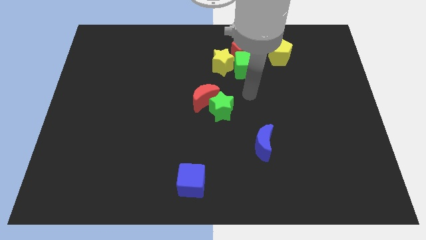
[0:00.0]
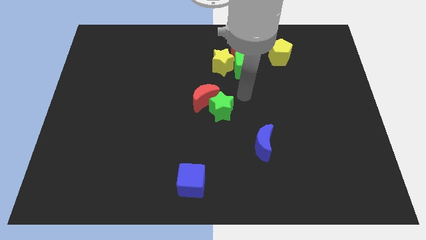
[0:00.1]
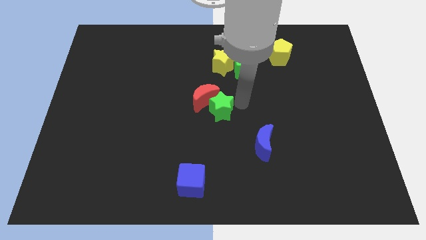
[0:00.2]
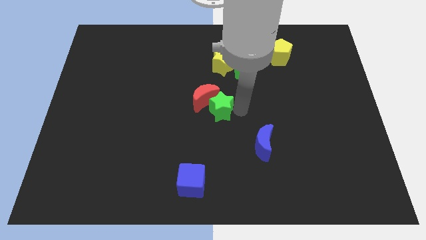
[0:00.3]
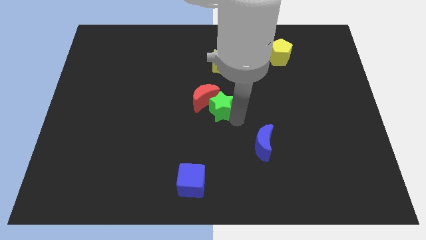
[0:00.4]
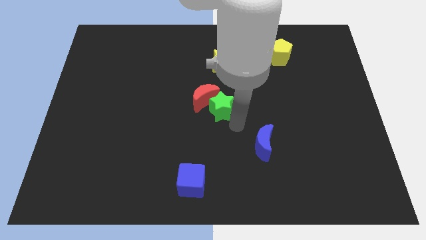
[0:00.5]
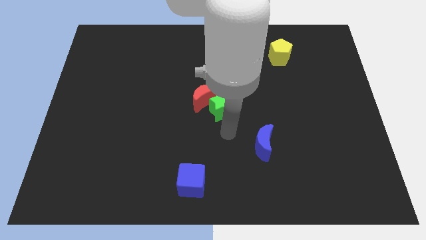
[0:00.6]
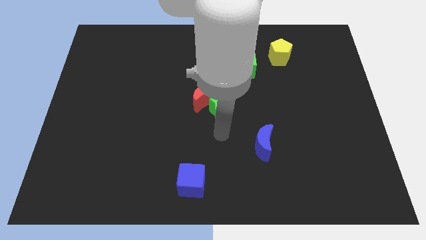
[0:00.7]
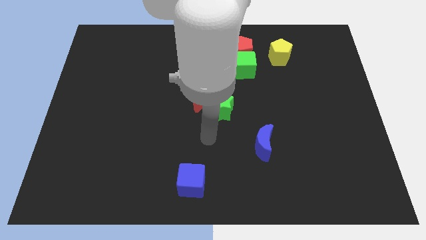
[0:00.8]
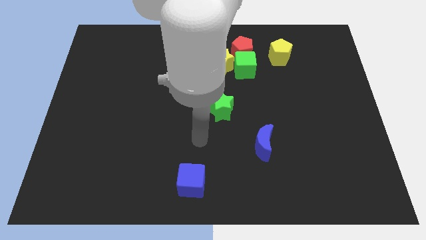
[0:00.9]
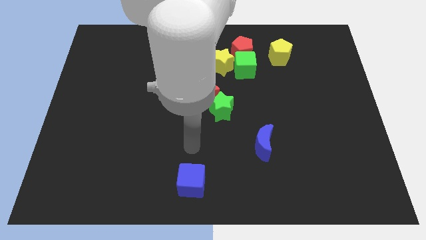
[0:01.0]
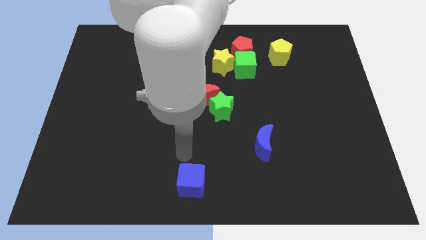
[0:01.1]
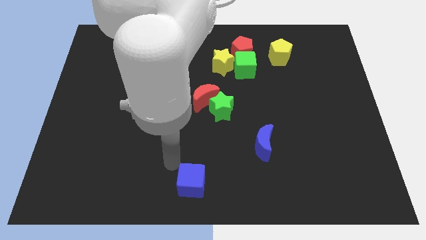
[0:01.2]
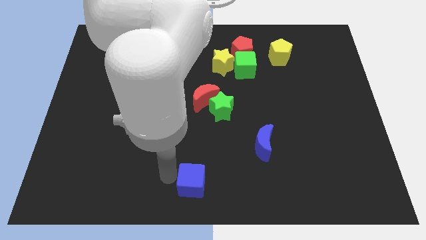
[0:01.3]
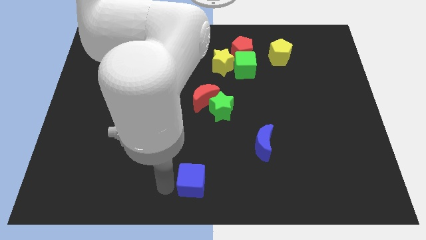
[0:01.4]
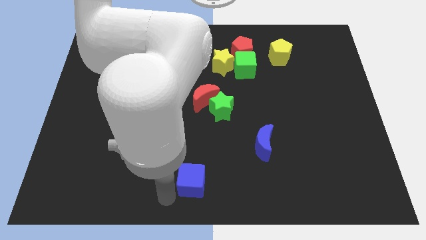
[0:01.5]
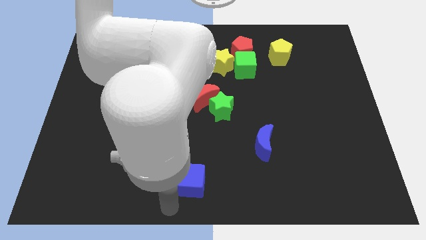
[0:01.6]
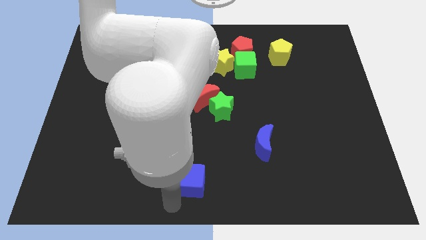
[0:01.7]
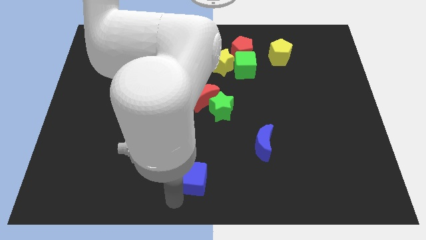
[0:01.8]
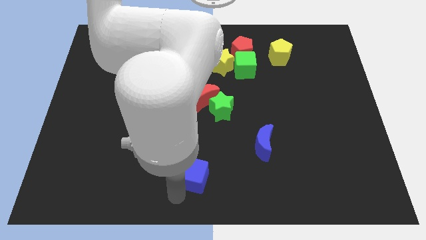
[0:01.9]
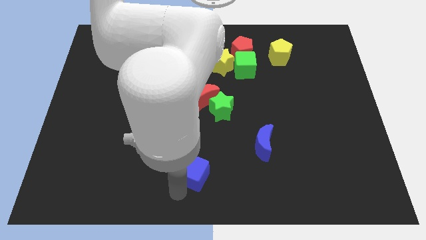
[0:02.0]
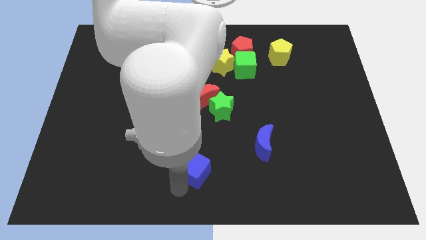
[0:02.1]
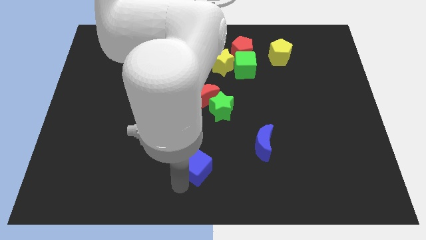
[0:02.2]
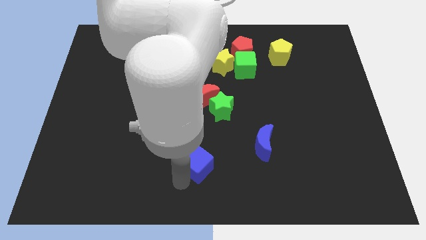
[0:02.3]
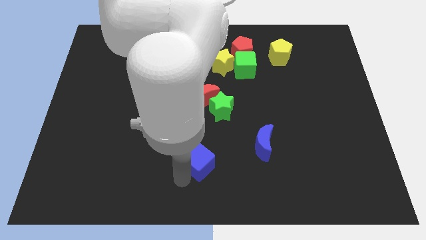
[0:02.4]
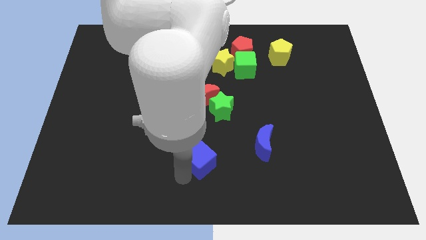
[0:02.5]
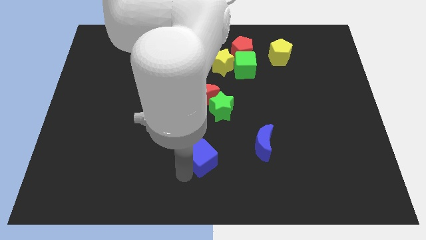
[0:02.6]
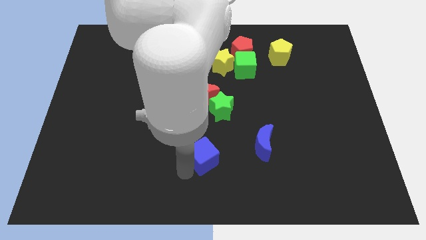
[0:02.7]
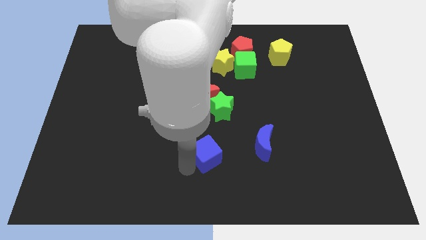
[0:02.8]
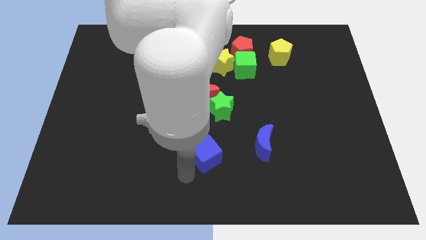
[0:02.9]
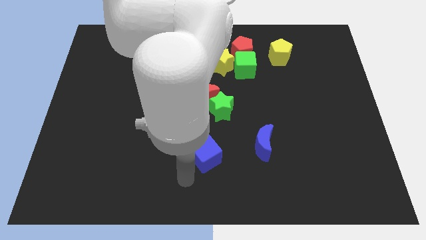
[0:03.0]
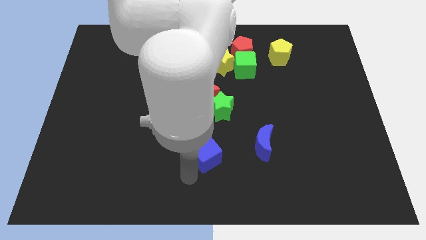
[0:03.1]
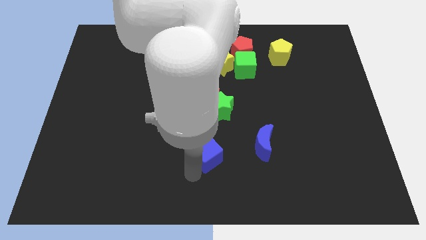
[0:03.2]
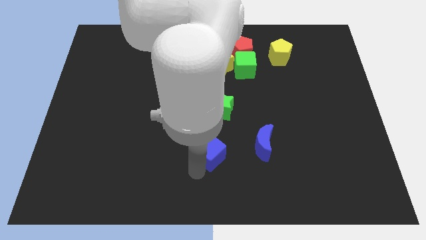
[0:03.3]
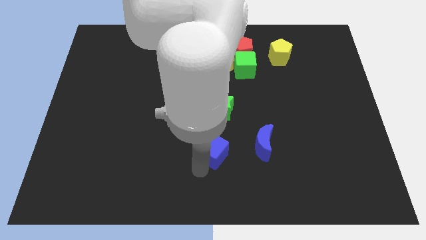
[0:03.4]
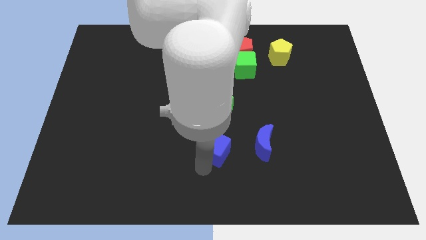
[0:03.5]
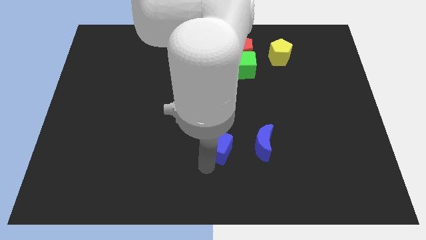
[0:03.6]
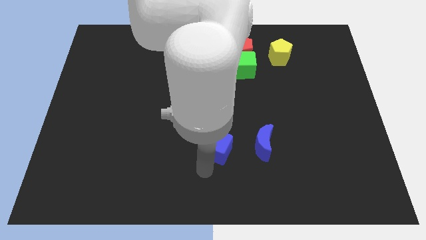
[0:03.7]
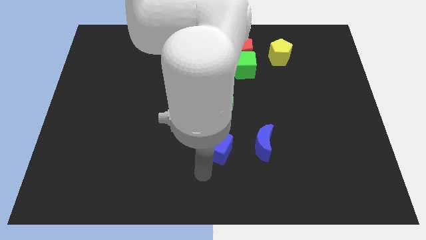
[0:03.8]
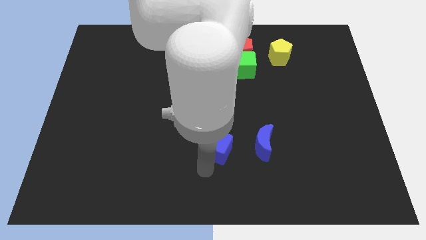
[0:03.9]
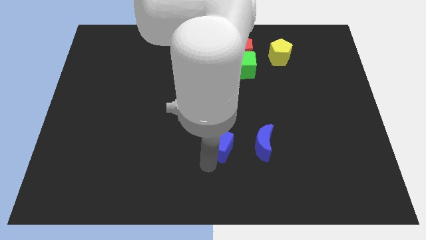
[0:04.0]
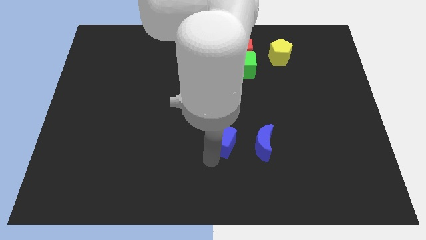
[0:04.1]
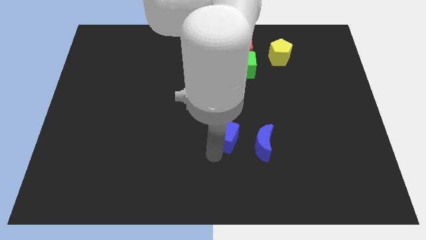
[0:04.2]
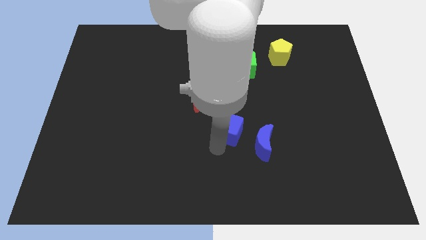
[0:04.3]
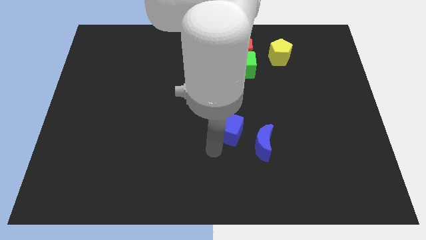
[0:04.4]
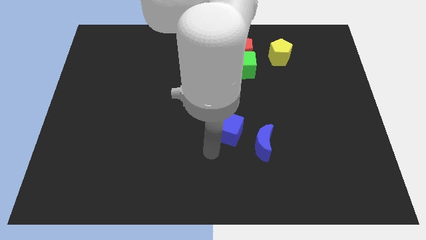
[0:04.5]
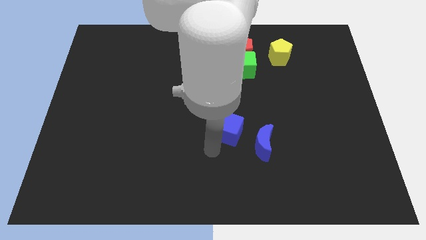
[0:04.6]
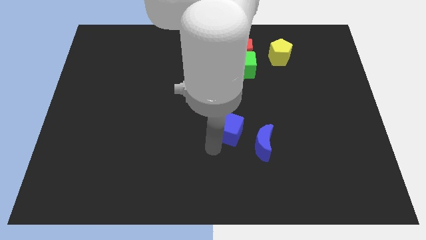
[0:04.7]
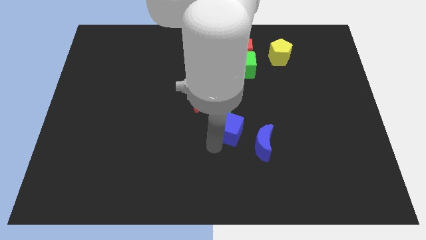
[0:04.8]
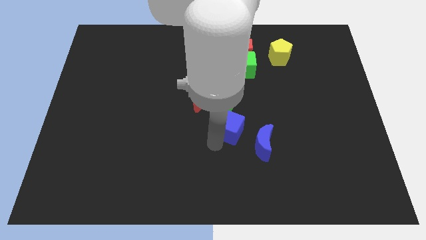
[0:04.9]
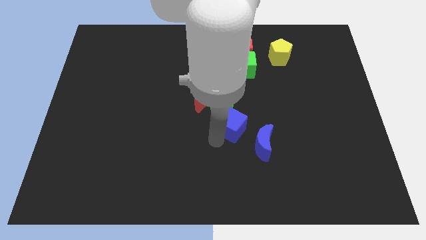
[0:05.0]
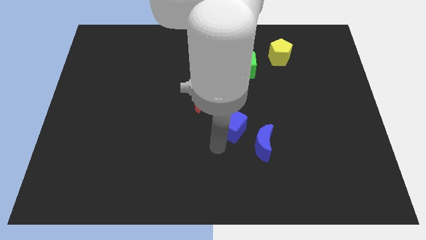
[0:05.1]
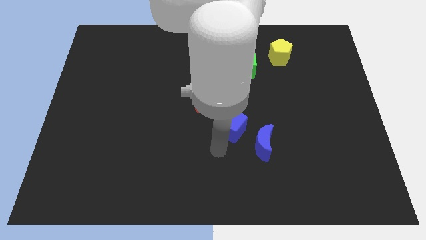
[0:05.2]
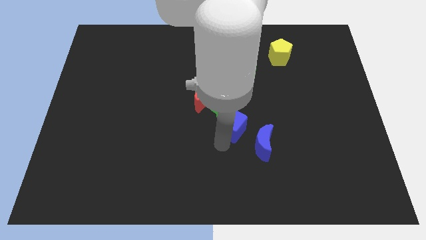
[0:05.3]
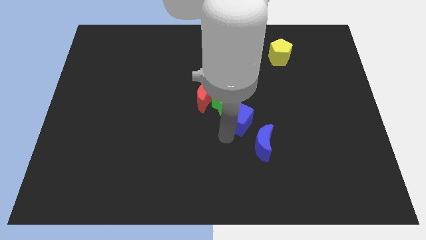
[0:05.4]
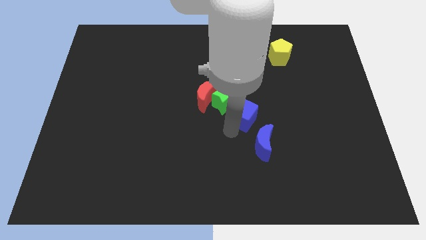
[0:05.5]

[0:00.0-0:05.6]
move the blue cube below the green cube

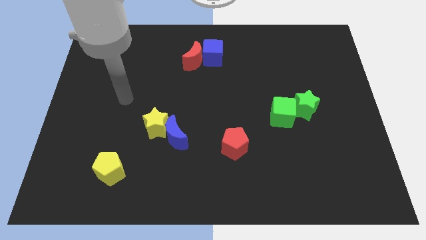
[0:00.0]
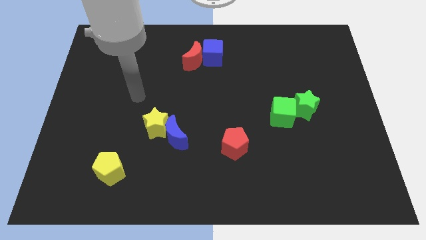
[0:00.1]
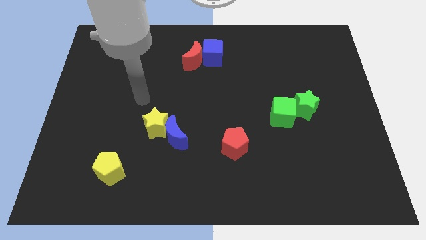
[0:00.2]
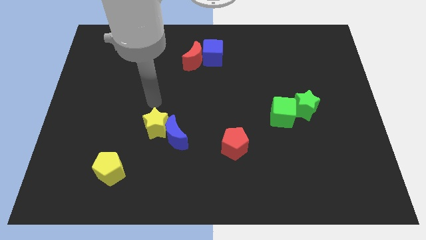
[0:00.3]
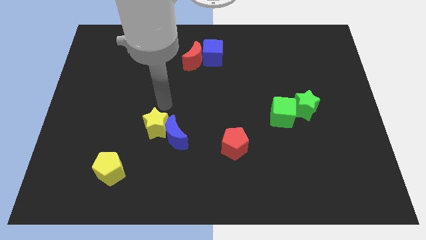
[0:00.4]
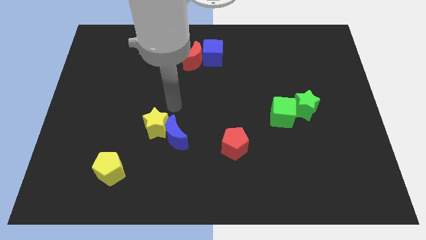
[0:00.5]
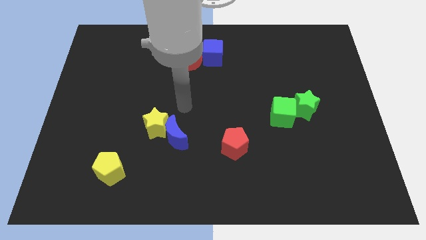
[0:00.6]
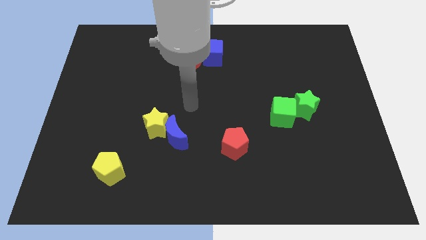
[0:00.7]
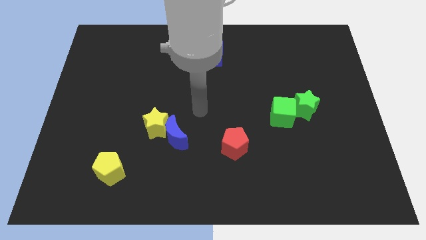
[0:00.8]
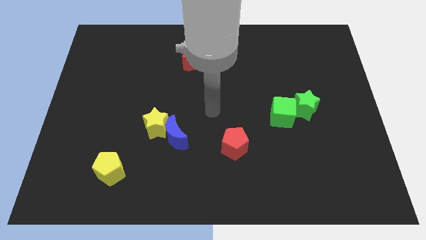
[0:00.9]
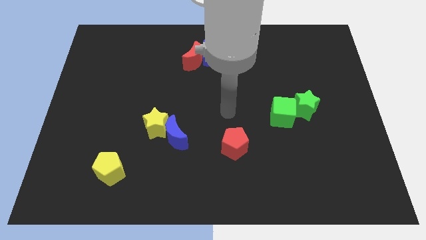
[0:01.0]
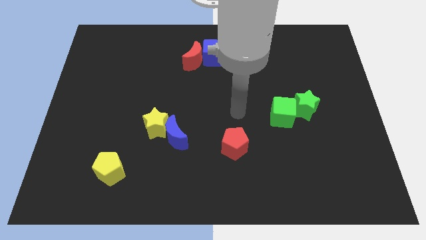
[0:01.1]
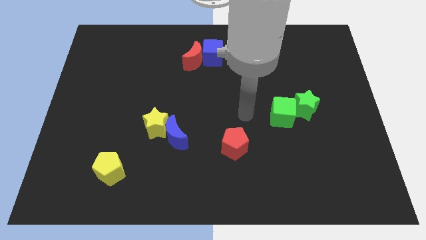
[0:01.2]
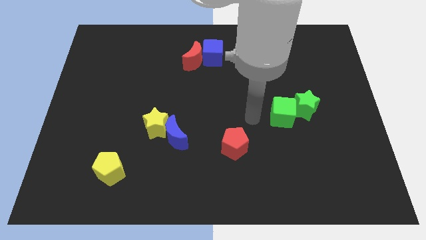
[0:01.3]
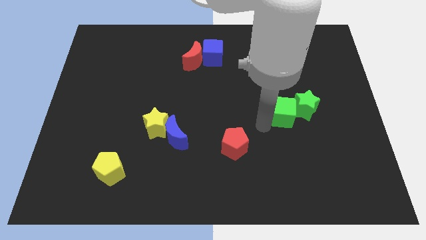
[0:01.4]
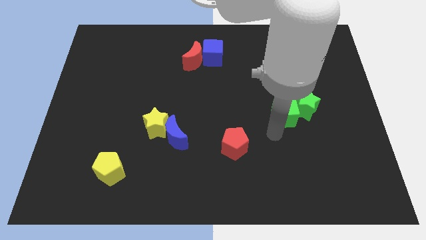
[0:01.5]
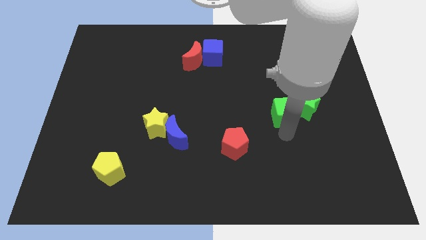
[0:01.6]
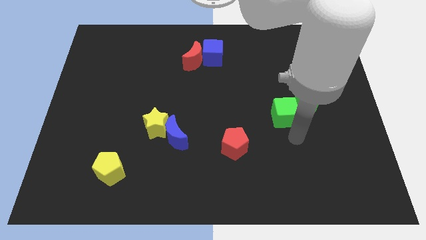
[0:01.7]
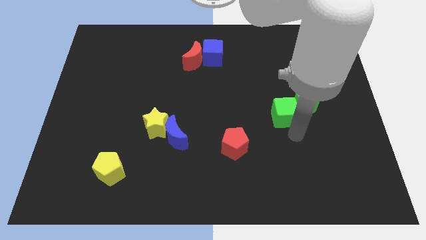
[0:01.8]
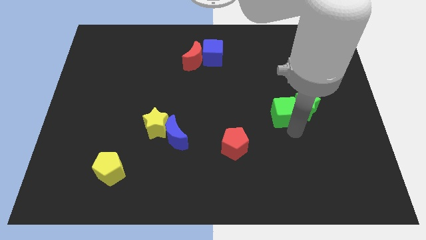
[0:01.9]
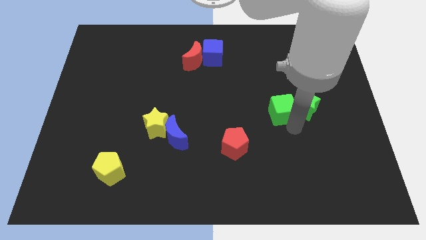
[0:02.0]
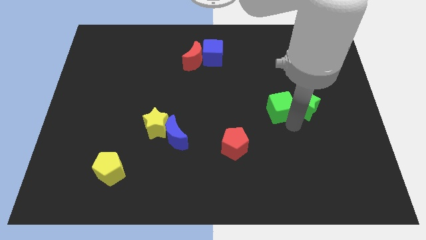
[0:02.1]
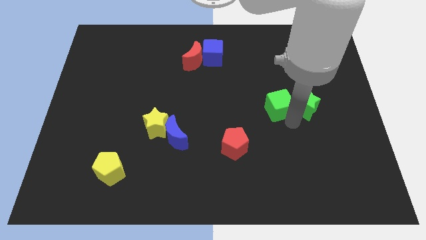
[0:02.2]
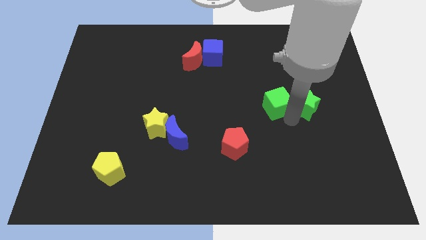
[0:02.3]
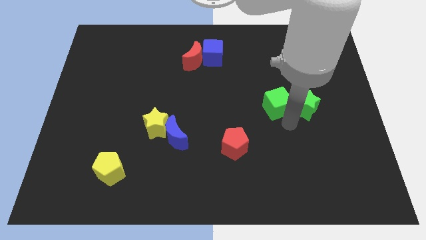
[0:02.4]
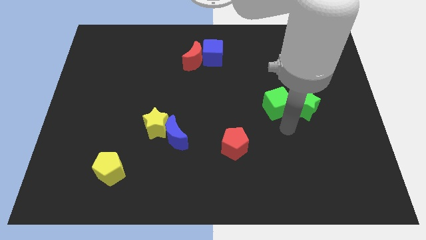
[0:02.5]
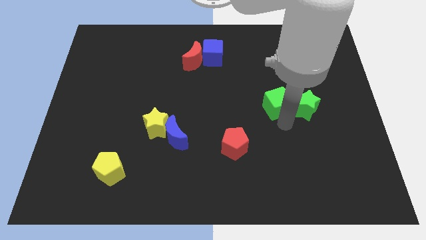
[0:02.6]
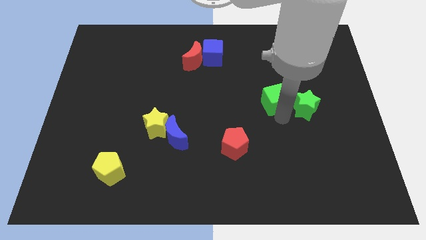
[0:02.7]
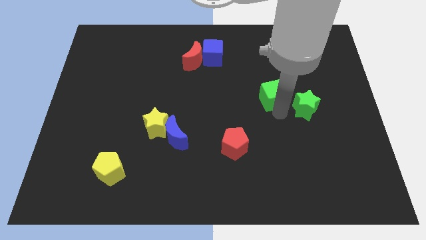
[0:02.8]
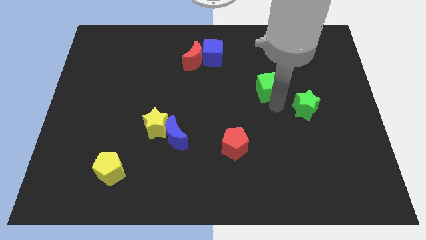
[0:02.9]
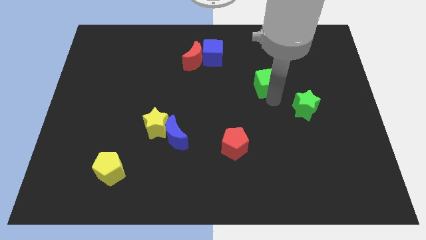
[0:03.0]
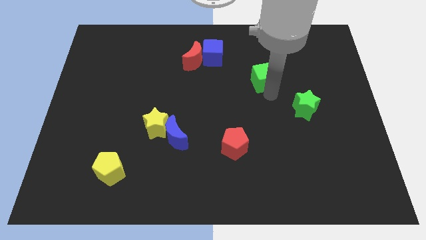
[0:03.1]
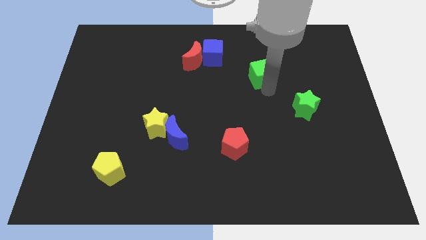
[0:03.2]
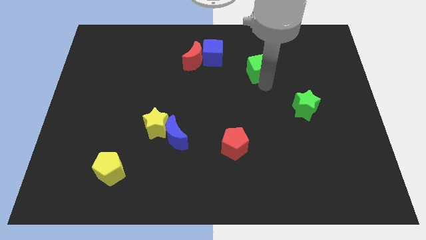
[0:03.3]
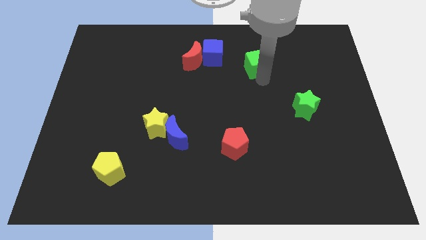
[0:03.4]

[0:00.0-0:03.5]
put the green cube to the right side of the blue cube
